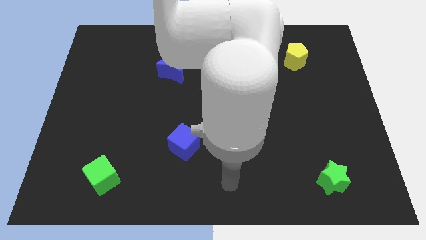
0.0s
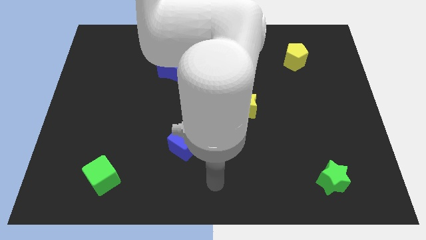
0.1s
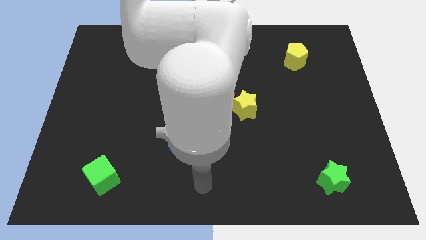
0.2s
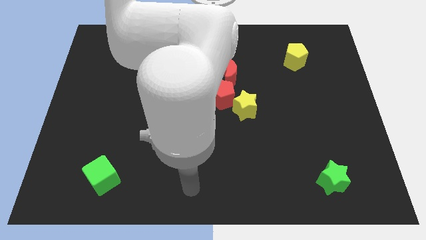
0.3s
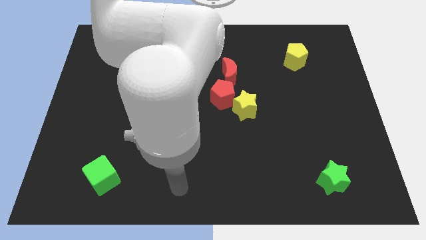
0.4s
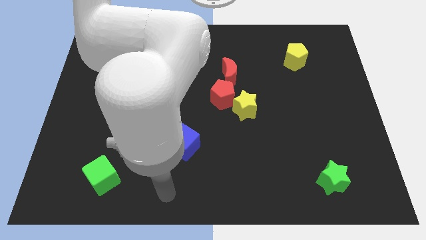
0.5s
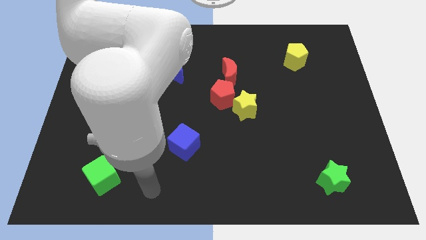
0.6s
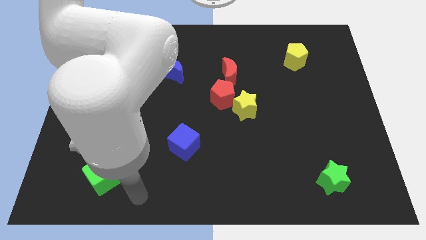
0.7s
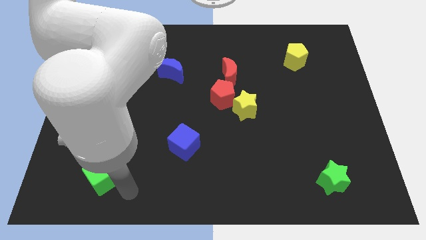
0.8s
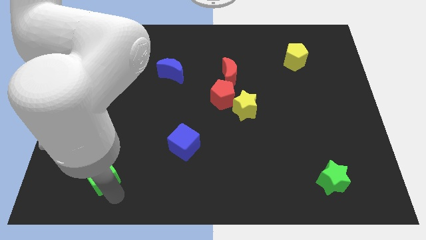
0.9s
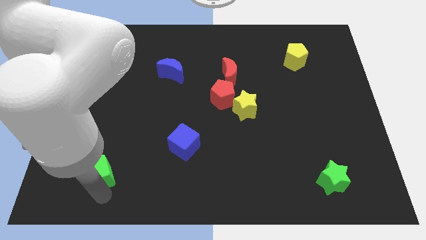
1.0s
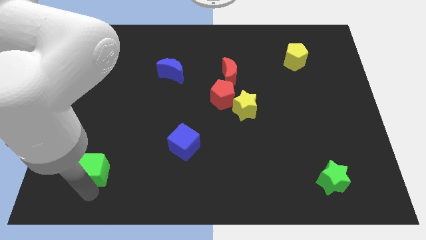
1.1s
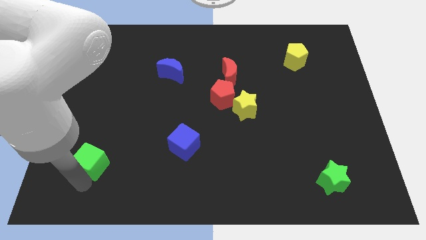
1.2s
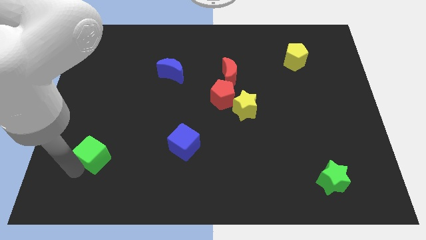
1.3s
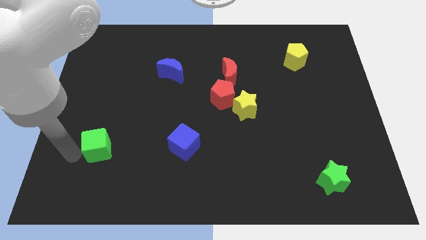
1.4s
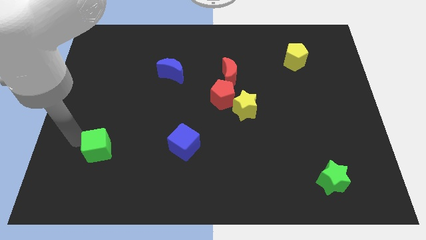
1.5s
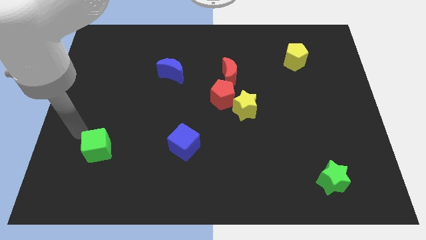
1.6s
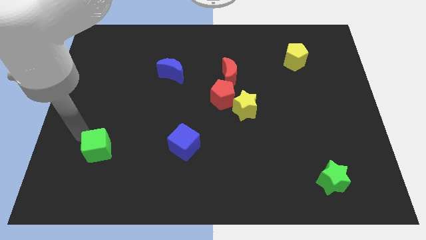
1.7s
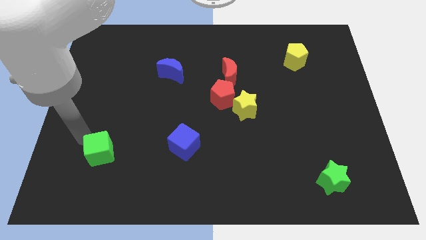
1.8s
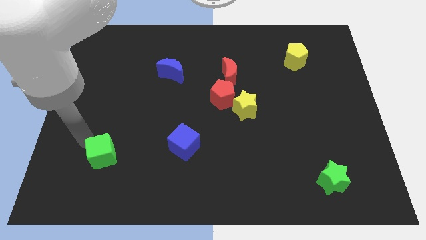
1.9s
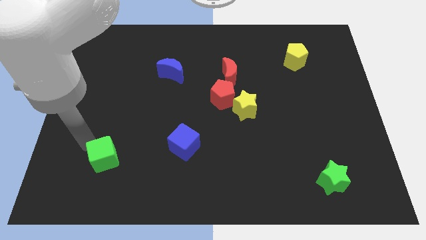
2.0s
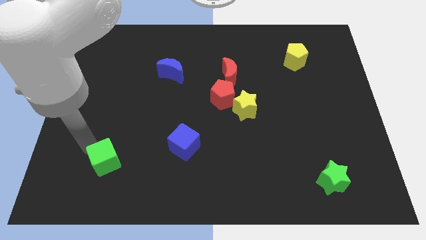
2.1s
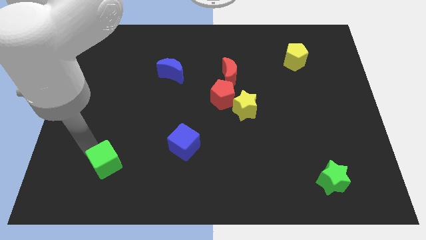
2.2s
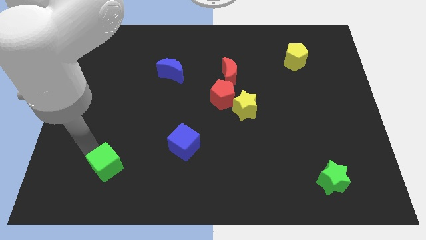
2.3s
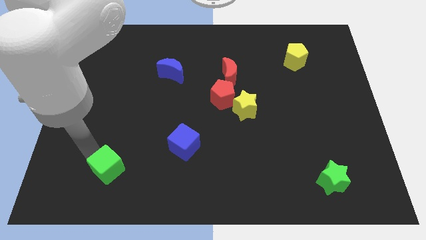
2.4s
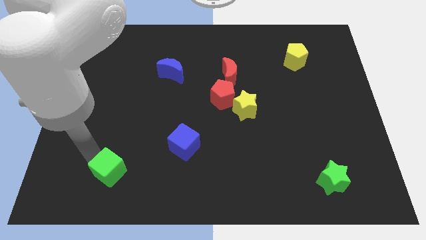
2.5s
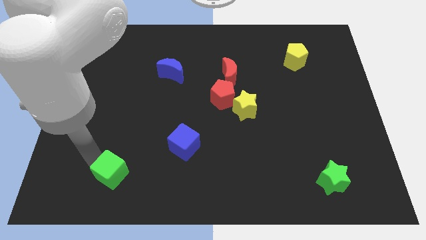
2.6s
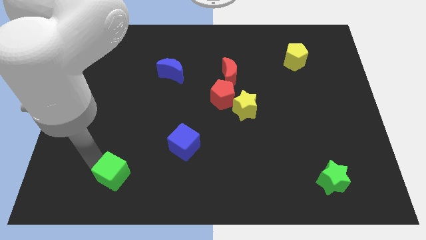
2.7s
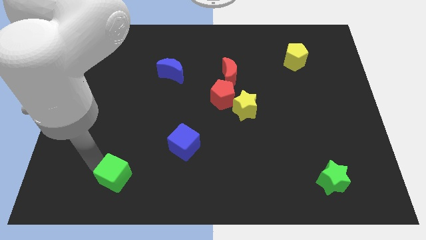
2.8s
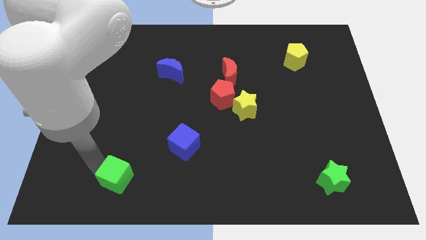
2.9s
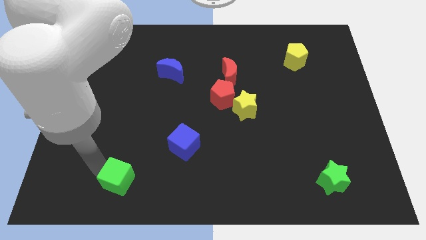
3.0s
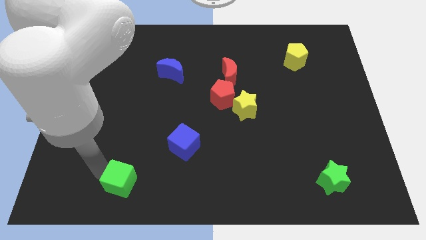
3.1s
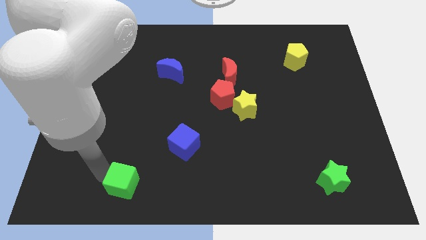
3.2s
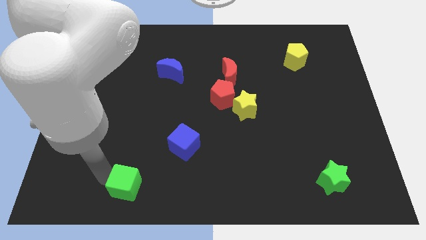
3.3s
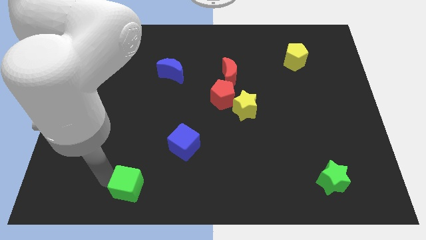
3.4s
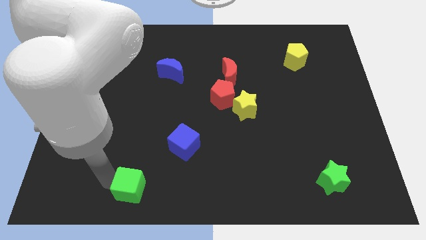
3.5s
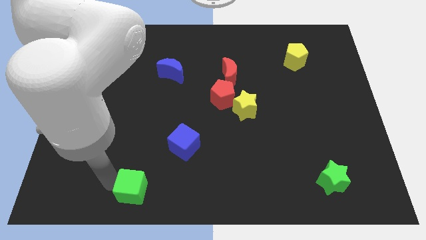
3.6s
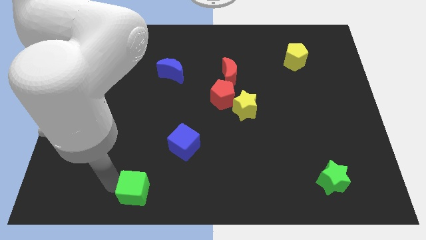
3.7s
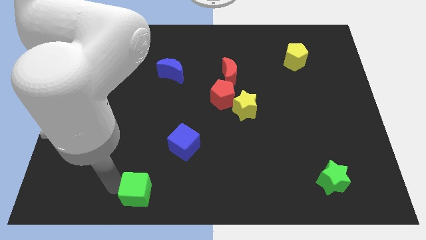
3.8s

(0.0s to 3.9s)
slide the green cube a little bit to the right

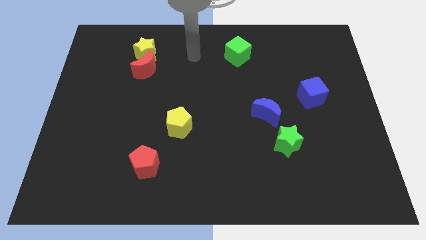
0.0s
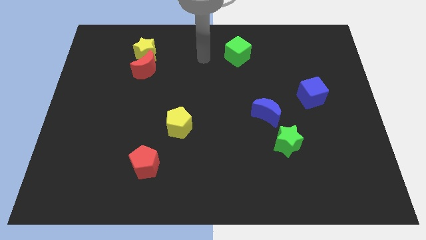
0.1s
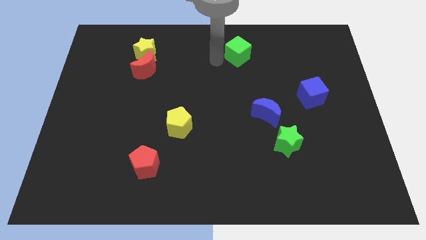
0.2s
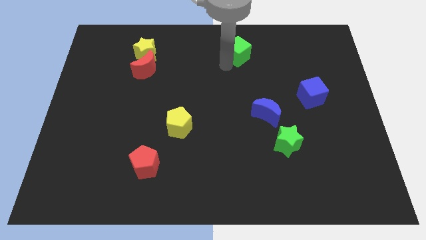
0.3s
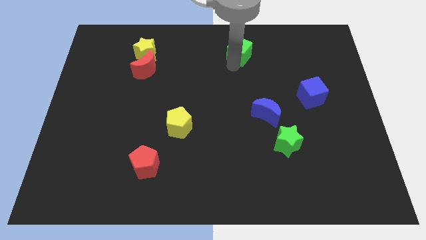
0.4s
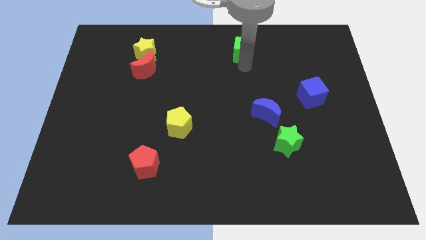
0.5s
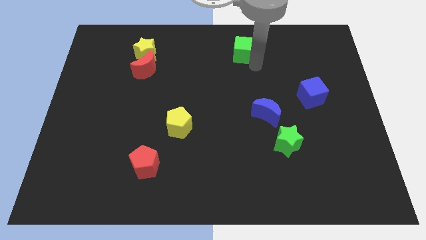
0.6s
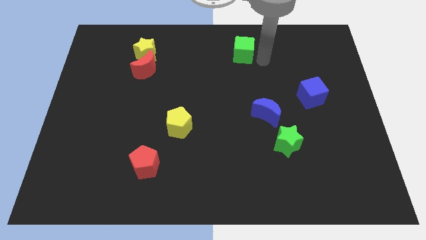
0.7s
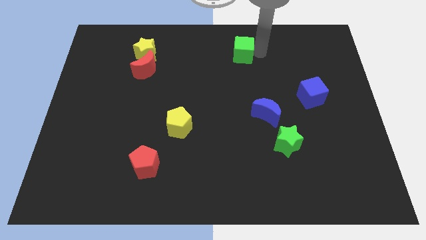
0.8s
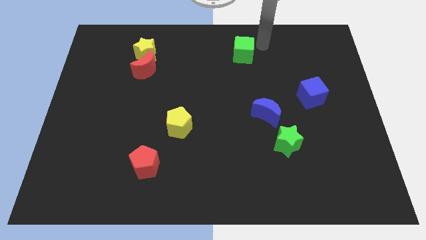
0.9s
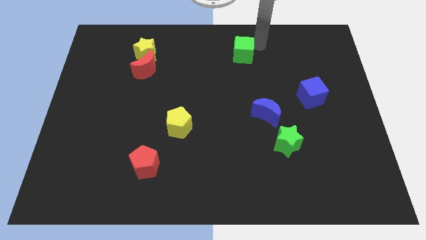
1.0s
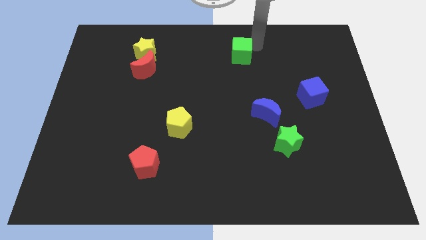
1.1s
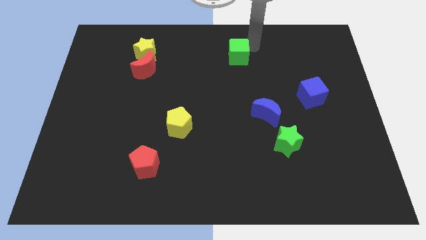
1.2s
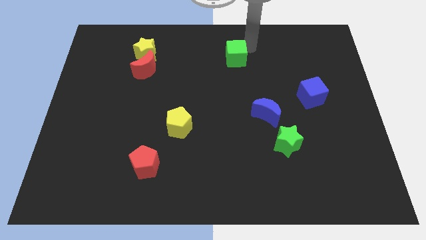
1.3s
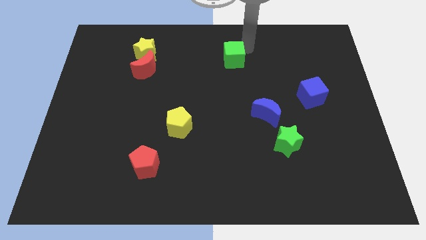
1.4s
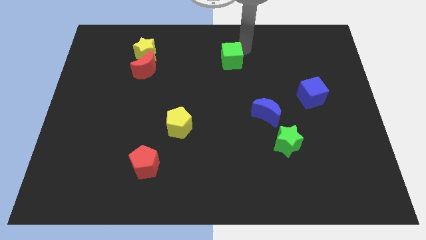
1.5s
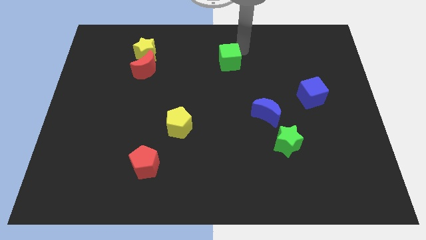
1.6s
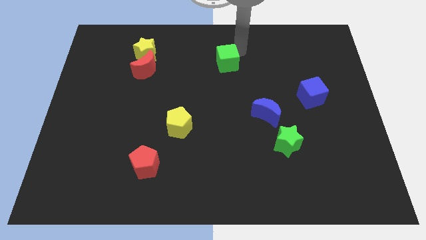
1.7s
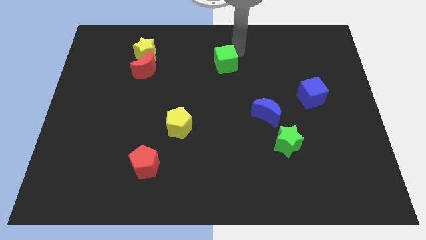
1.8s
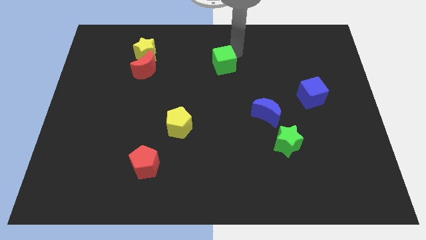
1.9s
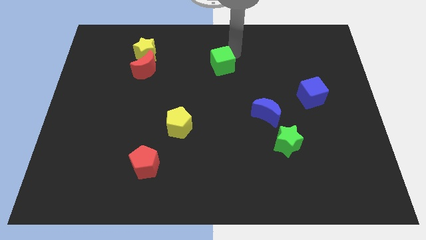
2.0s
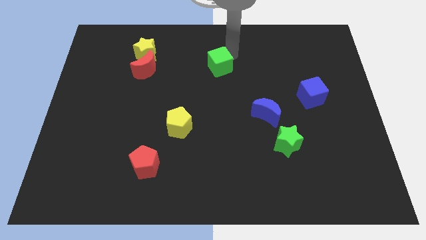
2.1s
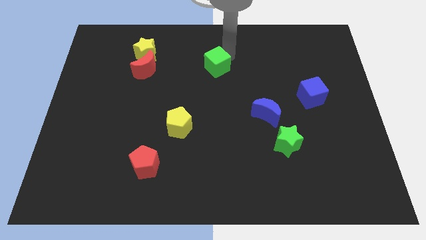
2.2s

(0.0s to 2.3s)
push the green cube diagonally downwards and to the left a little

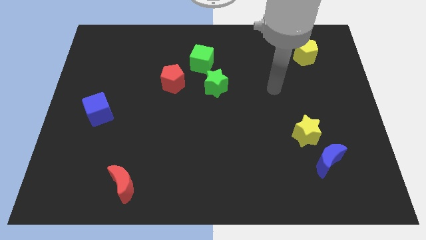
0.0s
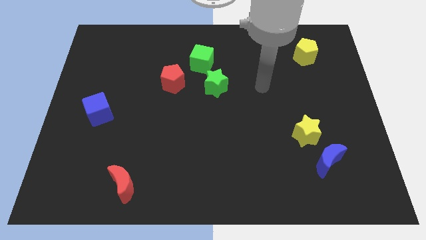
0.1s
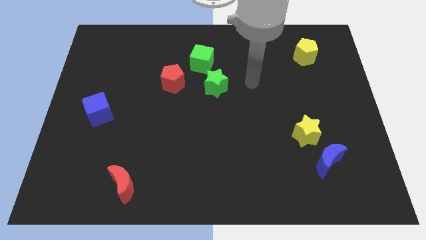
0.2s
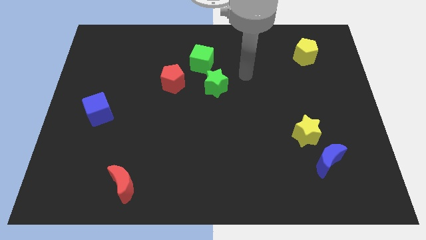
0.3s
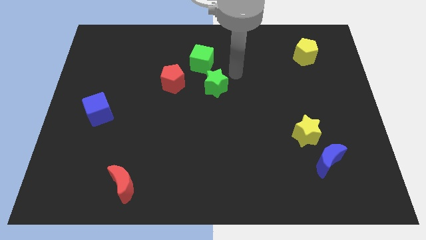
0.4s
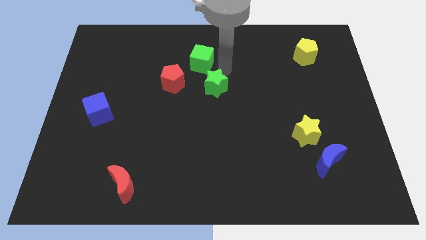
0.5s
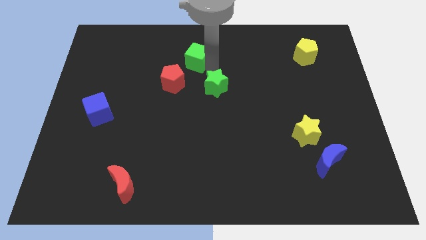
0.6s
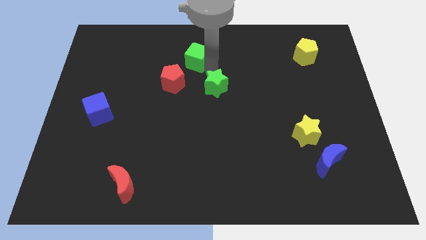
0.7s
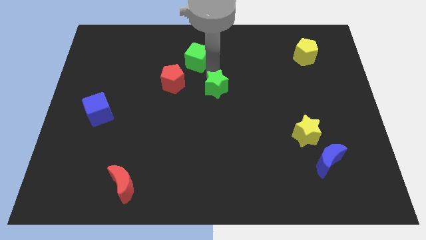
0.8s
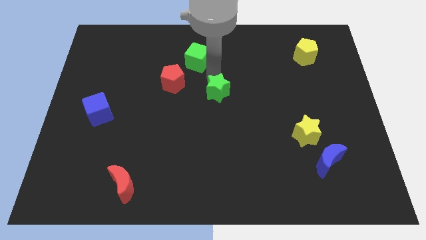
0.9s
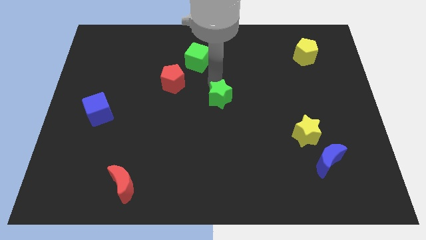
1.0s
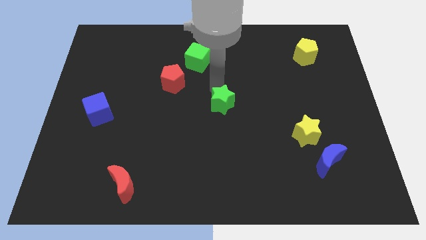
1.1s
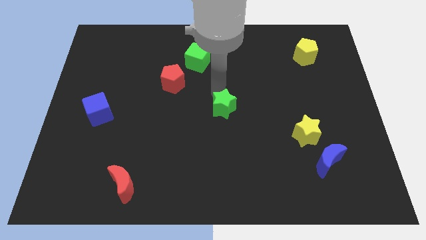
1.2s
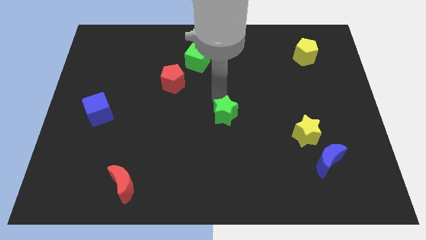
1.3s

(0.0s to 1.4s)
slightly slide the green star downwards and right

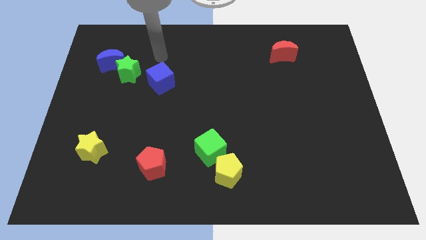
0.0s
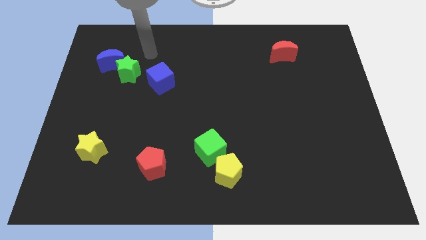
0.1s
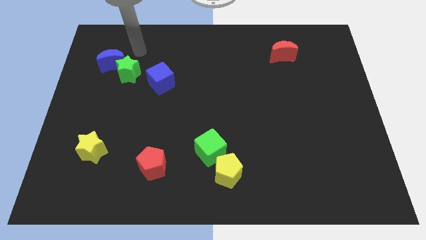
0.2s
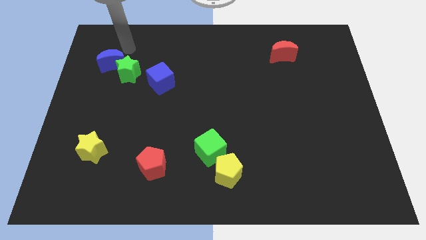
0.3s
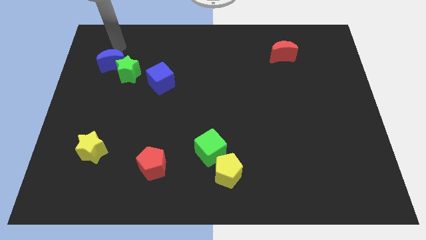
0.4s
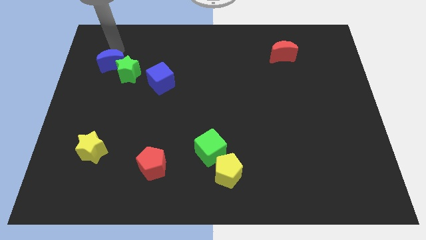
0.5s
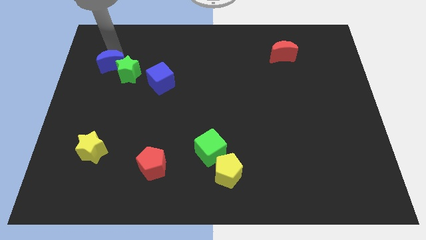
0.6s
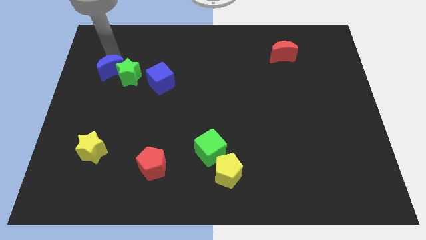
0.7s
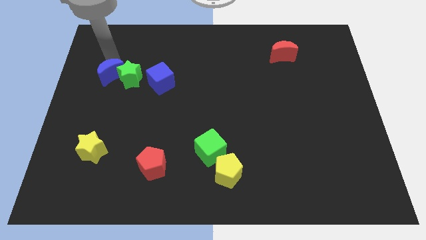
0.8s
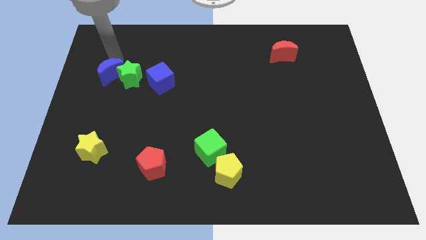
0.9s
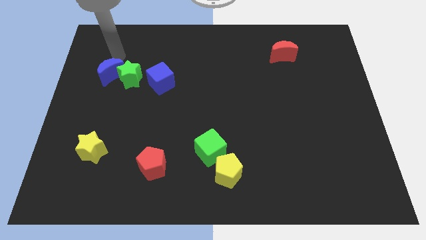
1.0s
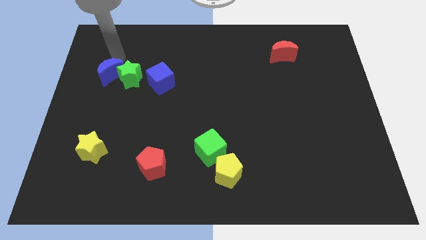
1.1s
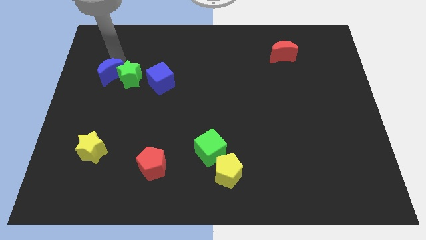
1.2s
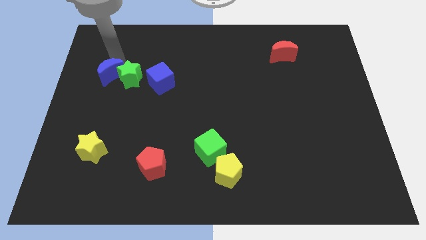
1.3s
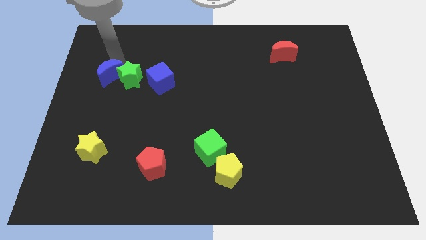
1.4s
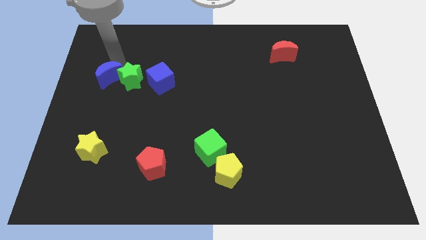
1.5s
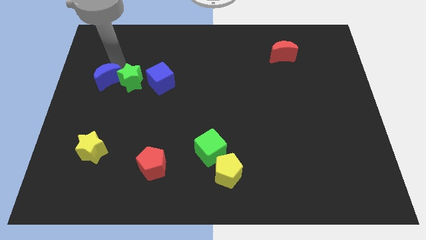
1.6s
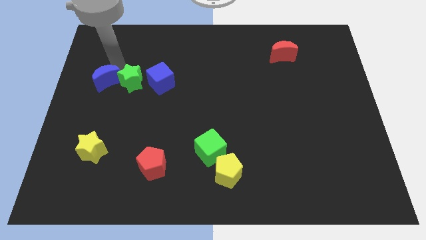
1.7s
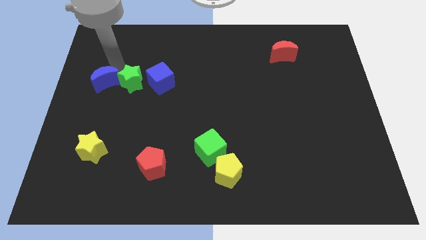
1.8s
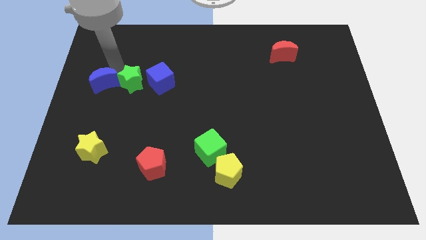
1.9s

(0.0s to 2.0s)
slightly slide the blue moon down
